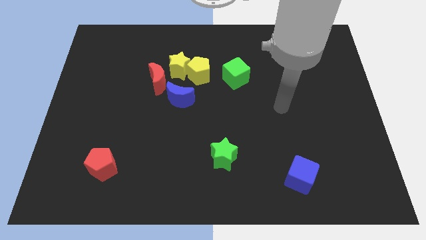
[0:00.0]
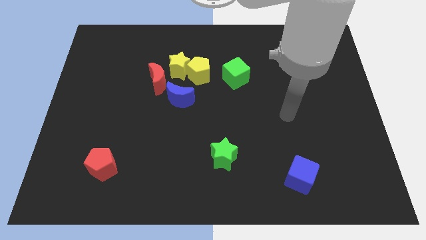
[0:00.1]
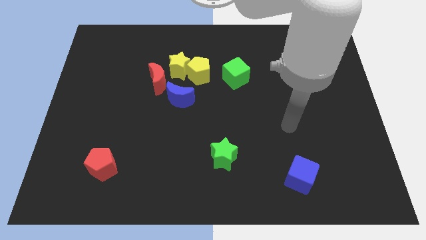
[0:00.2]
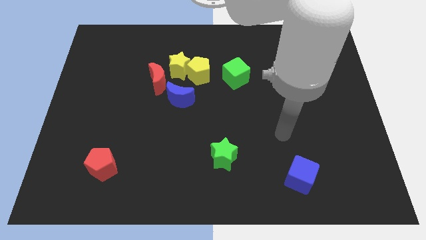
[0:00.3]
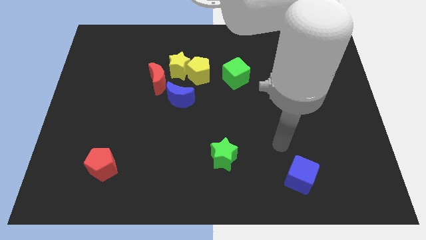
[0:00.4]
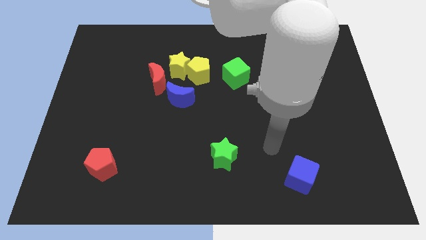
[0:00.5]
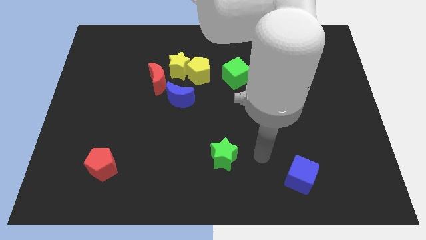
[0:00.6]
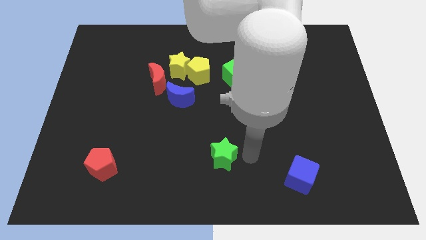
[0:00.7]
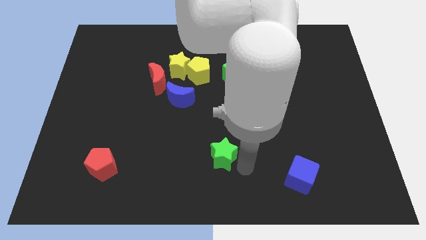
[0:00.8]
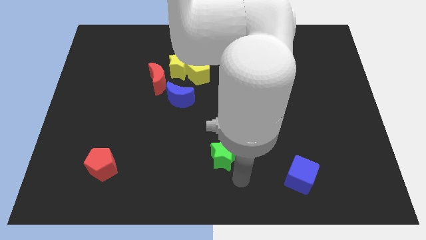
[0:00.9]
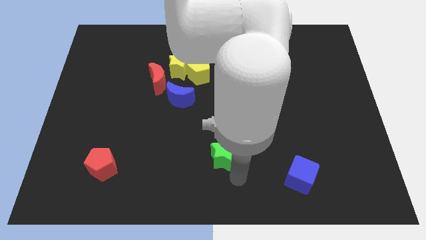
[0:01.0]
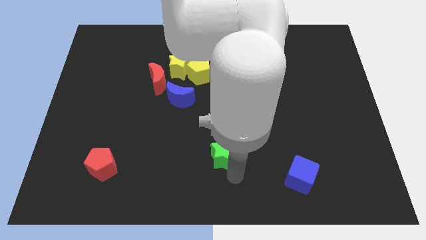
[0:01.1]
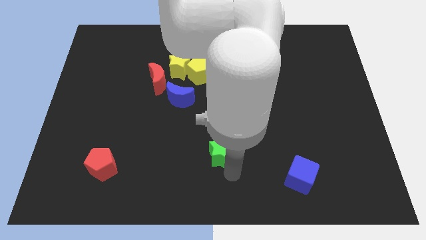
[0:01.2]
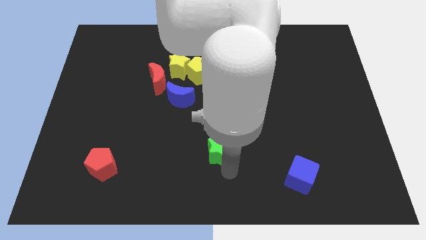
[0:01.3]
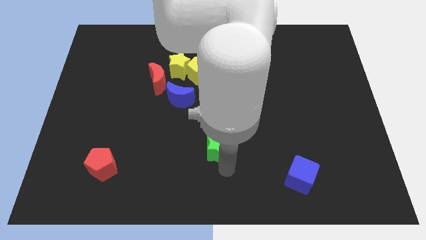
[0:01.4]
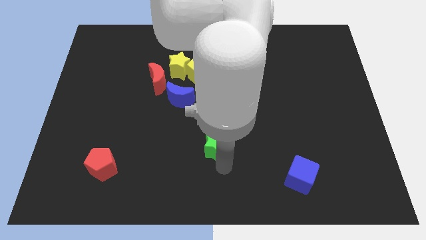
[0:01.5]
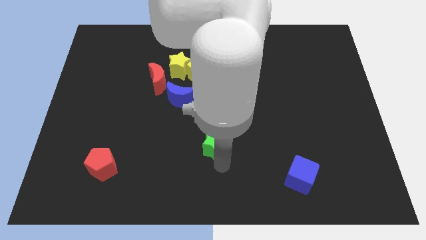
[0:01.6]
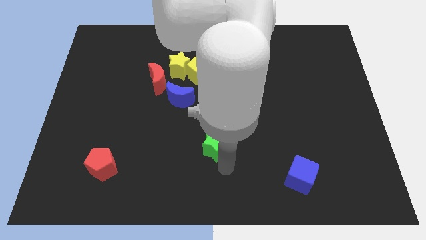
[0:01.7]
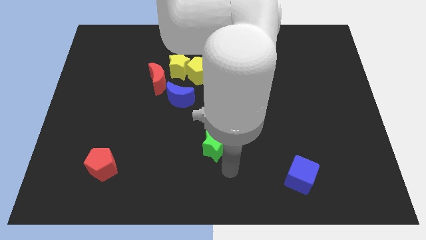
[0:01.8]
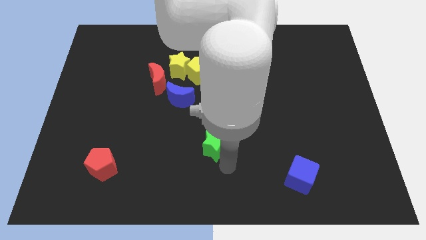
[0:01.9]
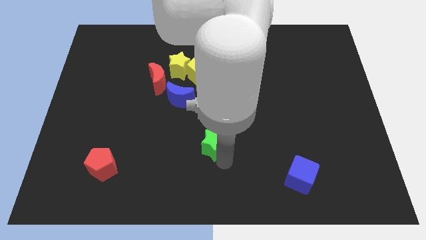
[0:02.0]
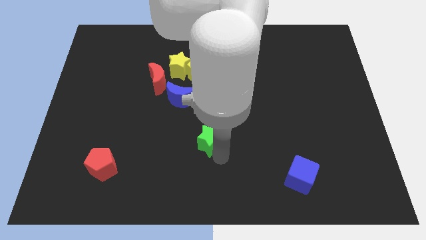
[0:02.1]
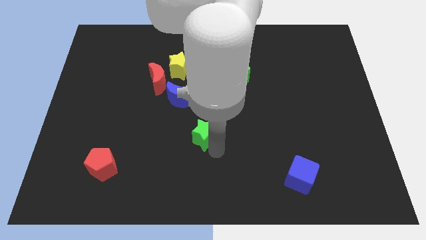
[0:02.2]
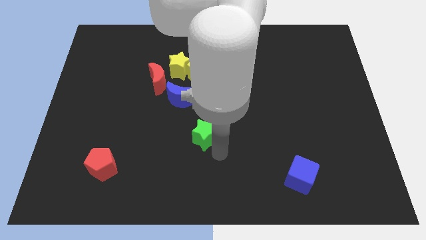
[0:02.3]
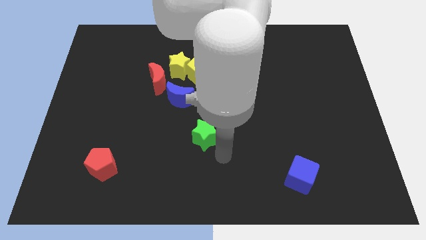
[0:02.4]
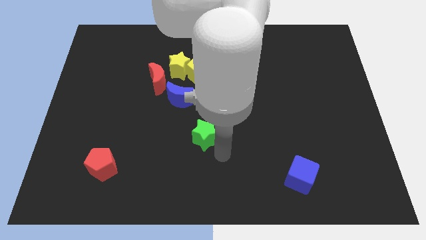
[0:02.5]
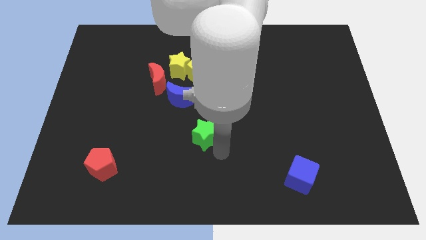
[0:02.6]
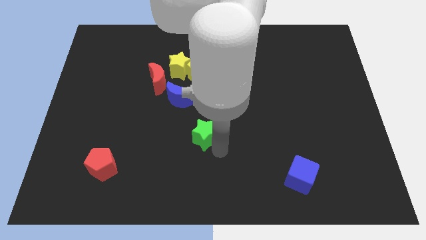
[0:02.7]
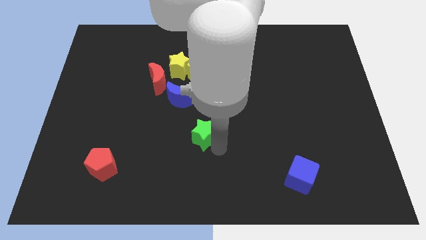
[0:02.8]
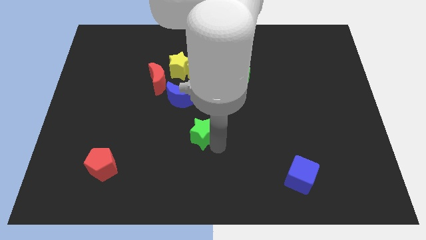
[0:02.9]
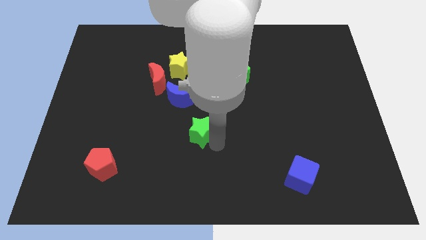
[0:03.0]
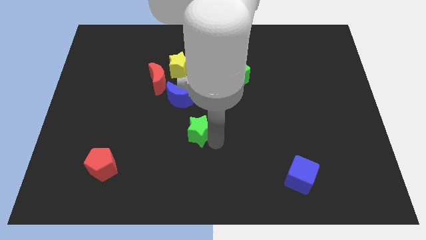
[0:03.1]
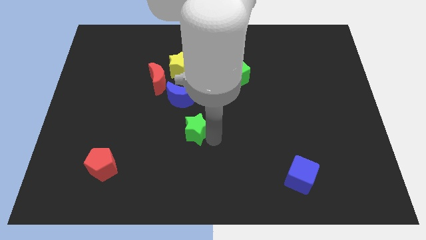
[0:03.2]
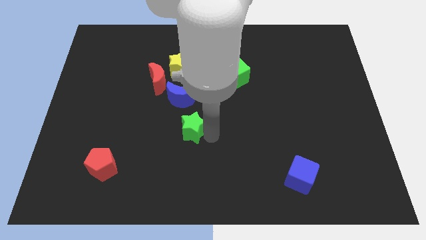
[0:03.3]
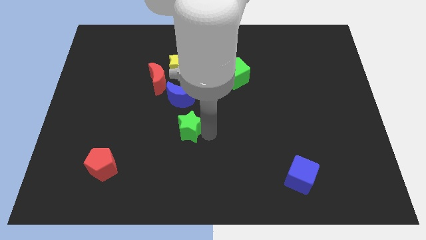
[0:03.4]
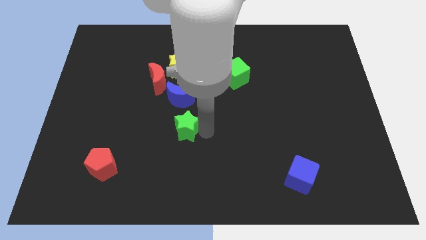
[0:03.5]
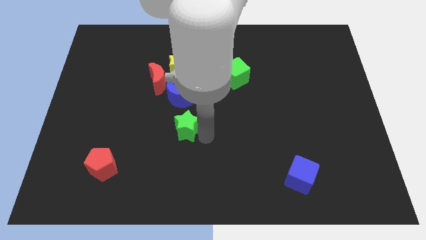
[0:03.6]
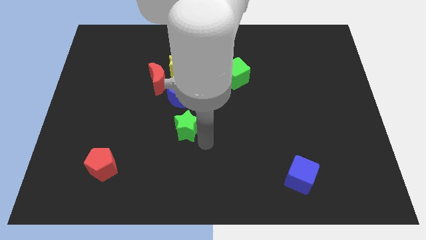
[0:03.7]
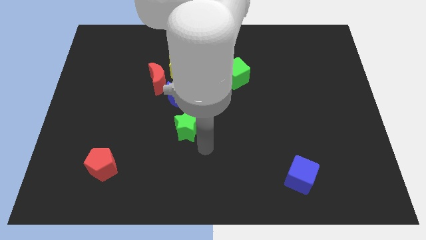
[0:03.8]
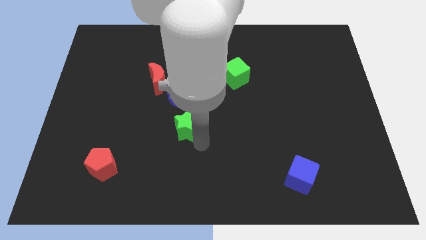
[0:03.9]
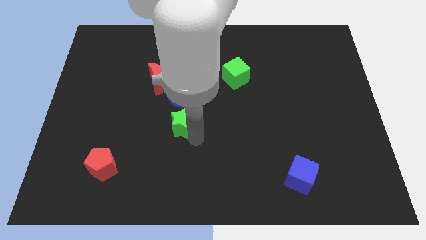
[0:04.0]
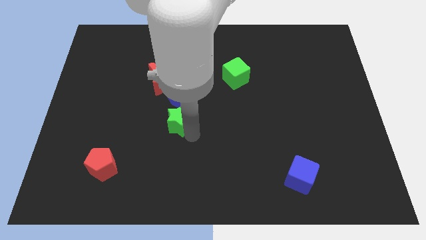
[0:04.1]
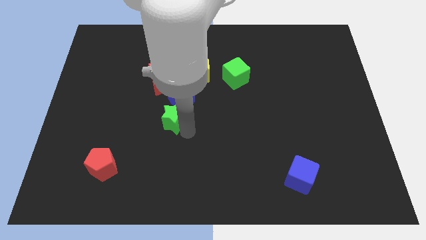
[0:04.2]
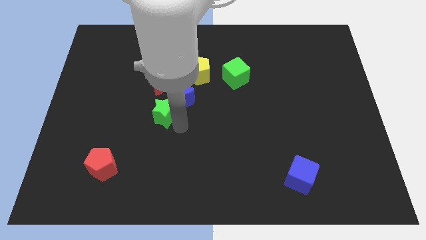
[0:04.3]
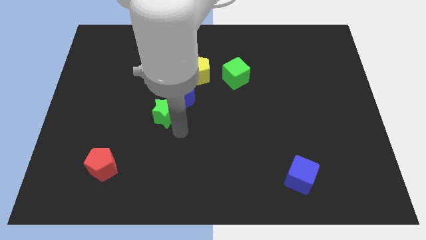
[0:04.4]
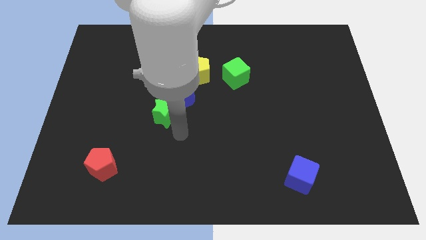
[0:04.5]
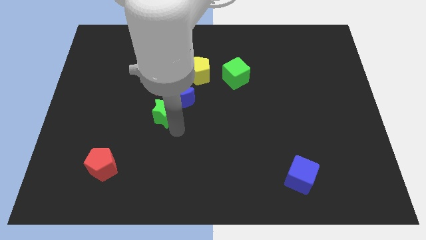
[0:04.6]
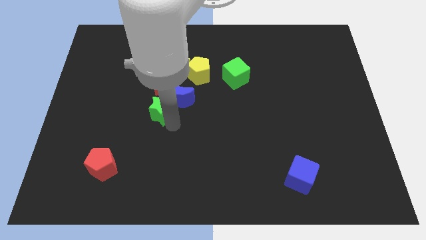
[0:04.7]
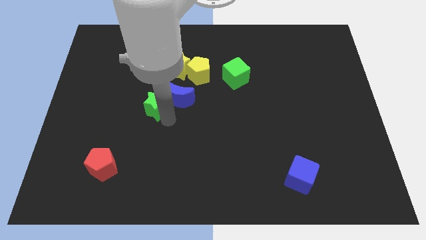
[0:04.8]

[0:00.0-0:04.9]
push the green star diagonally up and left

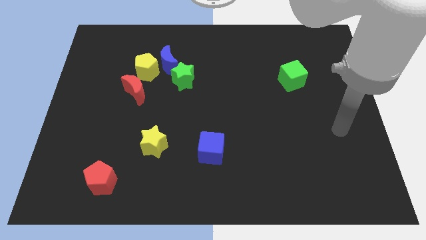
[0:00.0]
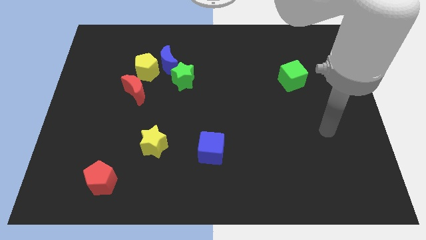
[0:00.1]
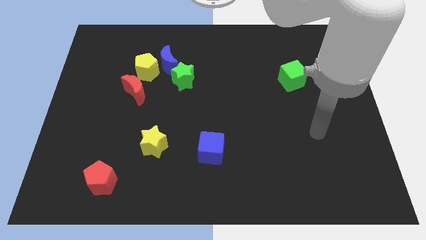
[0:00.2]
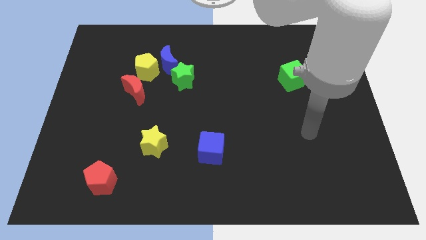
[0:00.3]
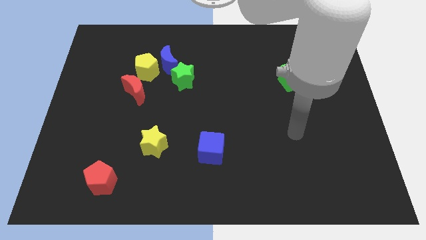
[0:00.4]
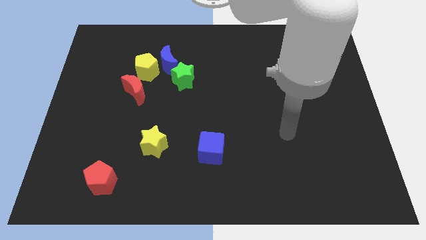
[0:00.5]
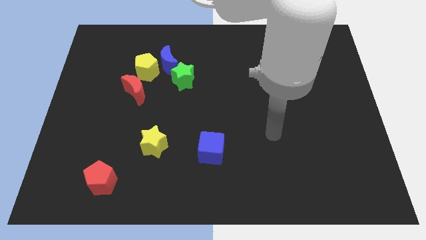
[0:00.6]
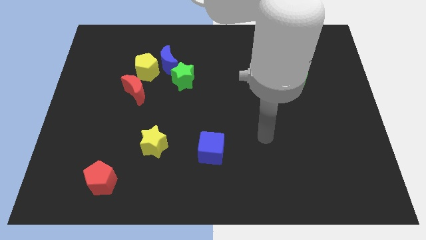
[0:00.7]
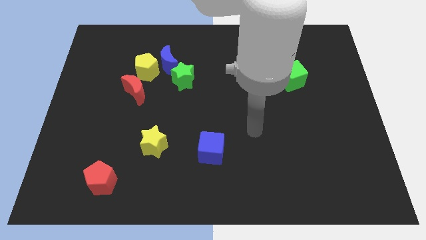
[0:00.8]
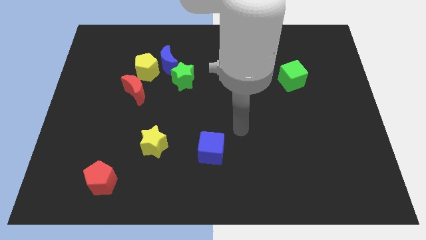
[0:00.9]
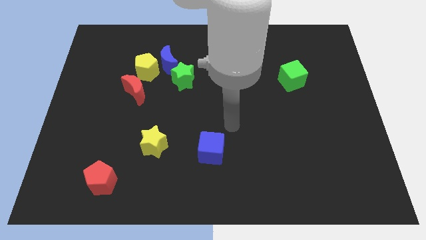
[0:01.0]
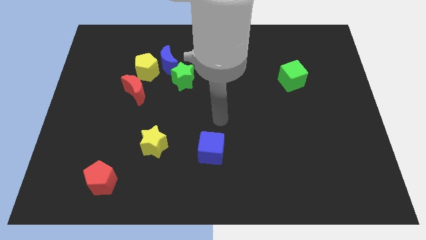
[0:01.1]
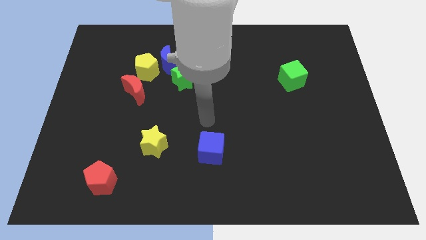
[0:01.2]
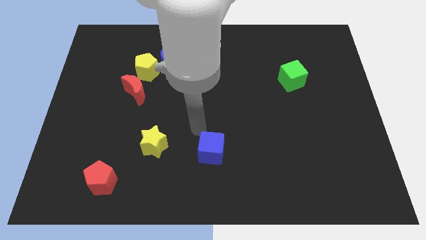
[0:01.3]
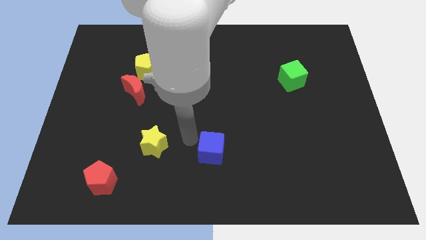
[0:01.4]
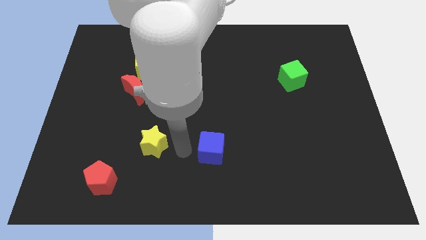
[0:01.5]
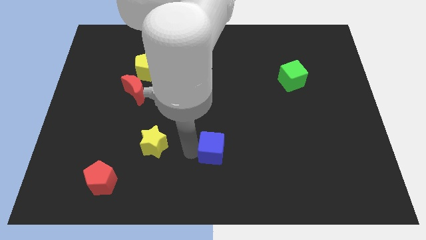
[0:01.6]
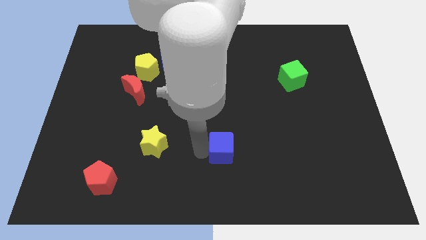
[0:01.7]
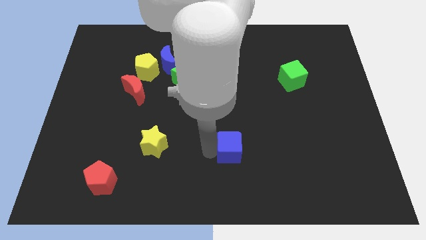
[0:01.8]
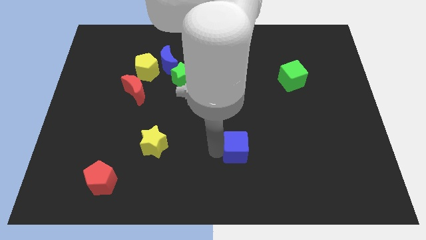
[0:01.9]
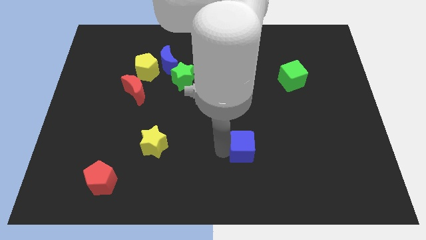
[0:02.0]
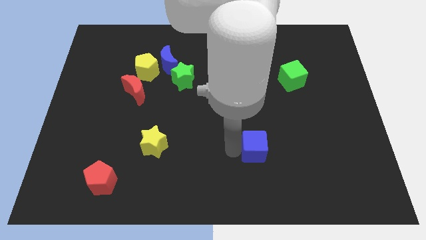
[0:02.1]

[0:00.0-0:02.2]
push the blue cube a bit to the right

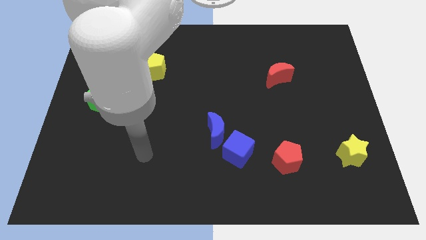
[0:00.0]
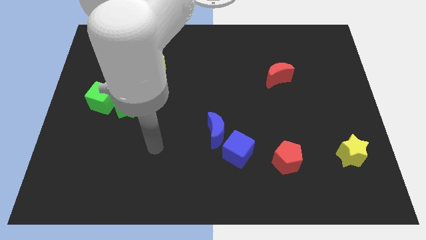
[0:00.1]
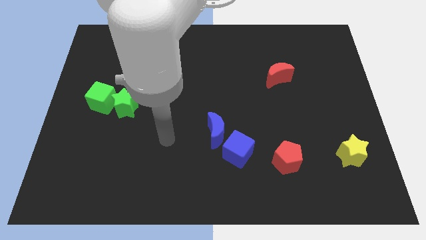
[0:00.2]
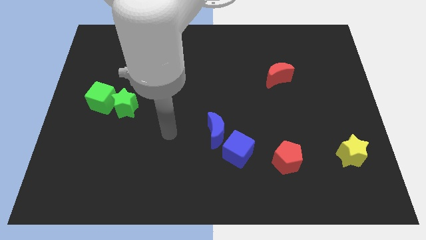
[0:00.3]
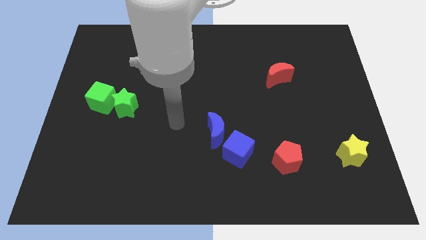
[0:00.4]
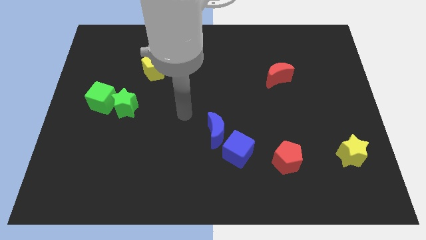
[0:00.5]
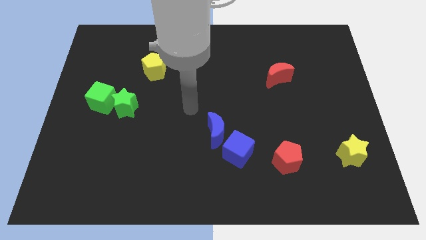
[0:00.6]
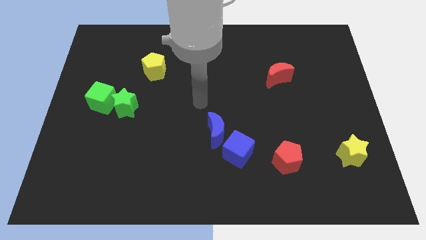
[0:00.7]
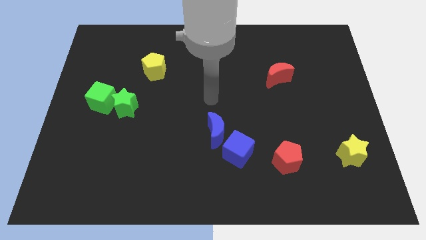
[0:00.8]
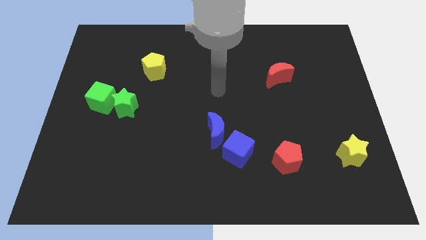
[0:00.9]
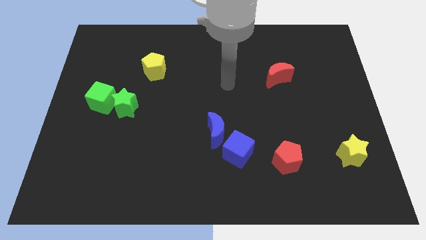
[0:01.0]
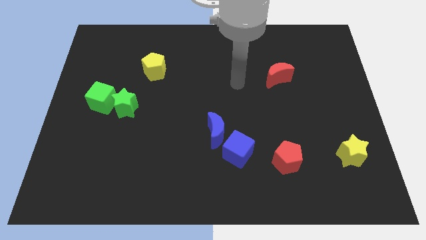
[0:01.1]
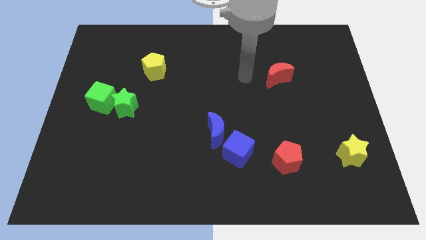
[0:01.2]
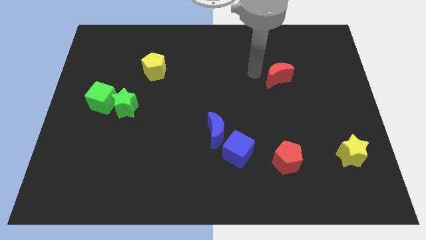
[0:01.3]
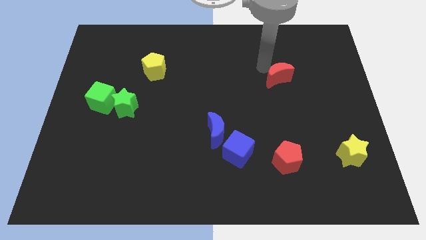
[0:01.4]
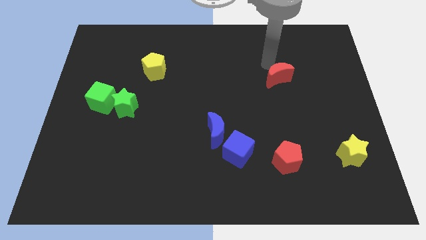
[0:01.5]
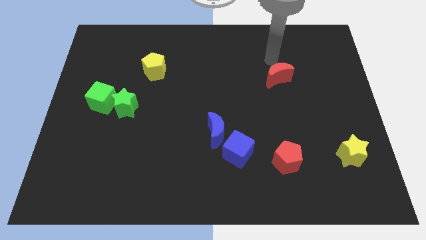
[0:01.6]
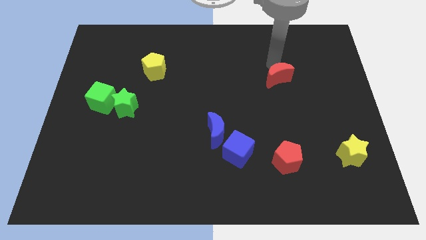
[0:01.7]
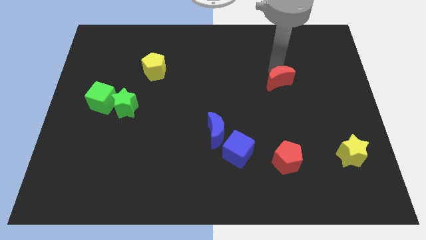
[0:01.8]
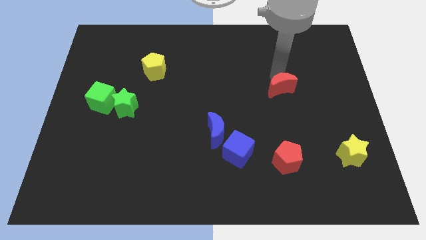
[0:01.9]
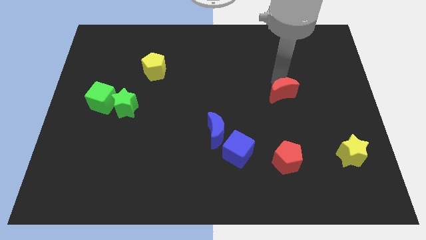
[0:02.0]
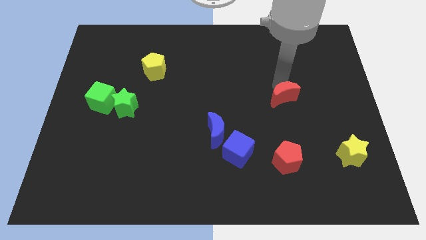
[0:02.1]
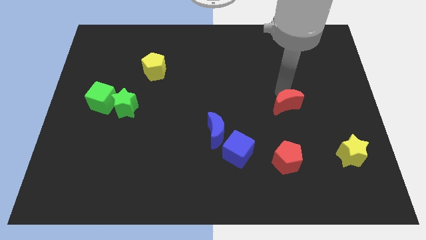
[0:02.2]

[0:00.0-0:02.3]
push the red moon a little bit downwards
